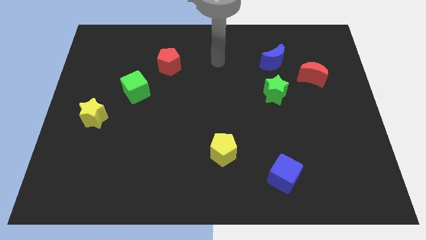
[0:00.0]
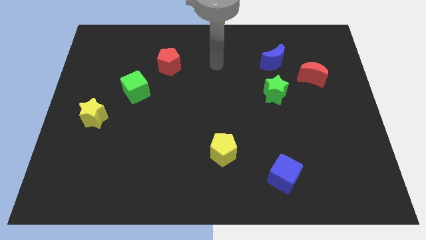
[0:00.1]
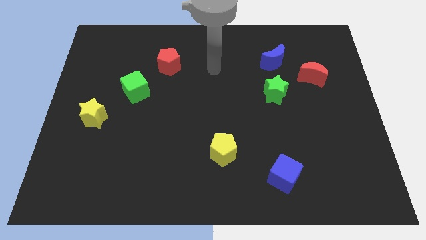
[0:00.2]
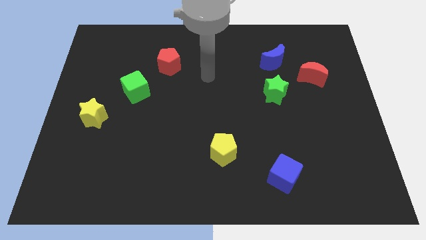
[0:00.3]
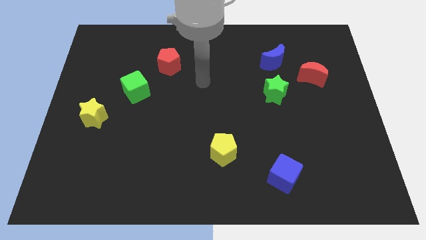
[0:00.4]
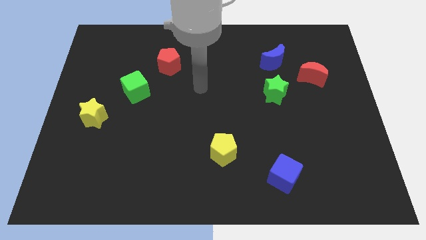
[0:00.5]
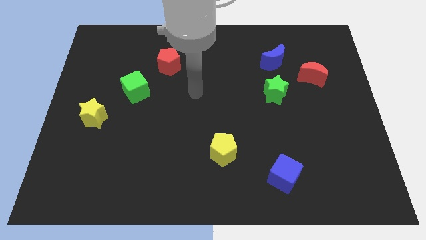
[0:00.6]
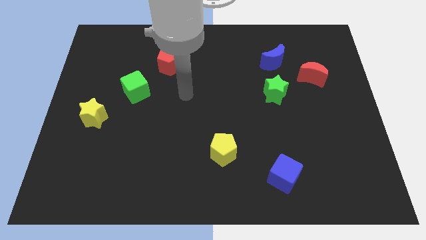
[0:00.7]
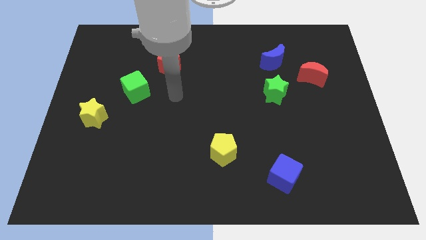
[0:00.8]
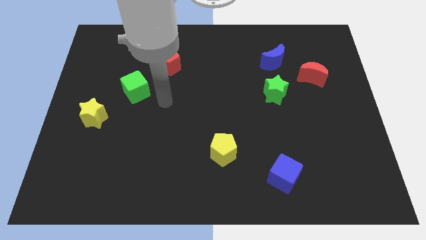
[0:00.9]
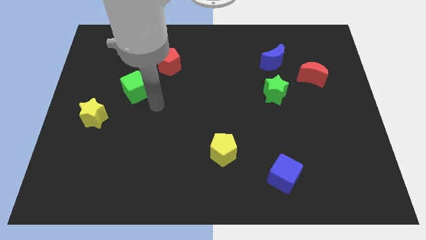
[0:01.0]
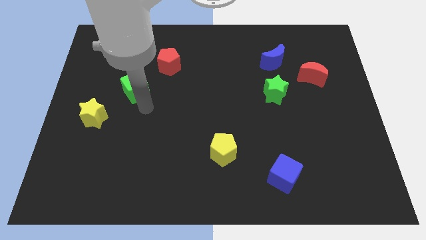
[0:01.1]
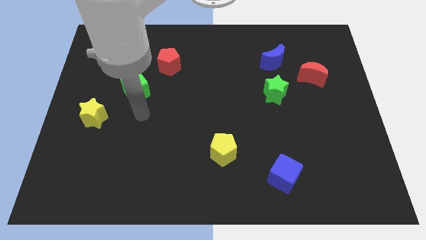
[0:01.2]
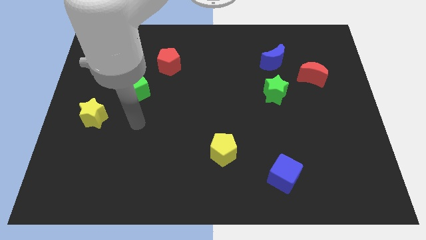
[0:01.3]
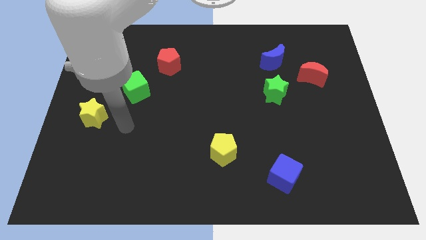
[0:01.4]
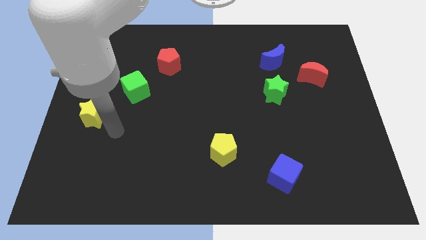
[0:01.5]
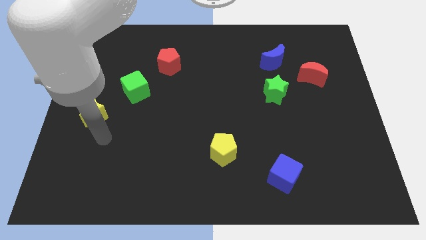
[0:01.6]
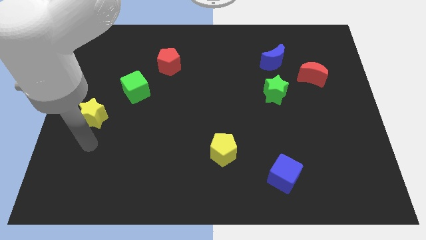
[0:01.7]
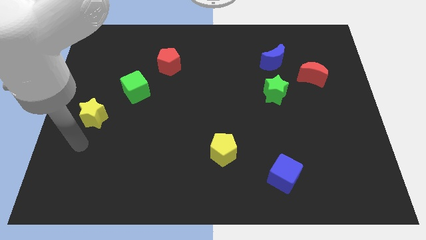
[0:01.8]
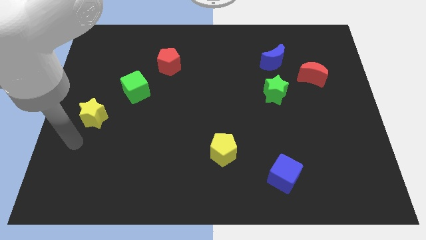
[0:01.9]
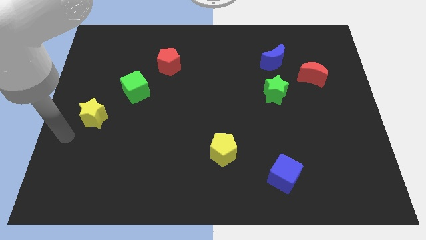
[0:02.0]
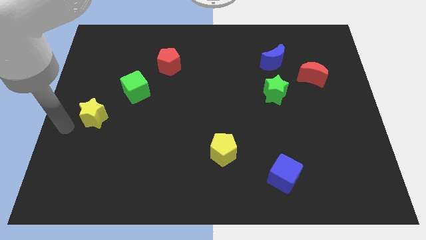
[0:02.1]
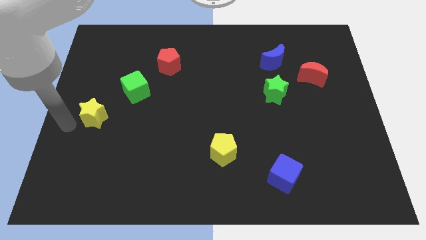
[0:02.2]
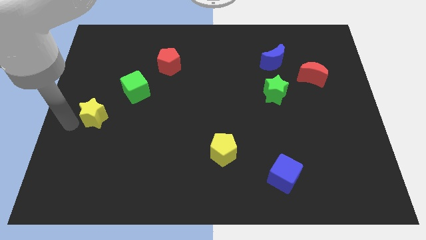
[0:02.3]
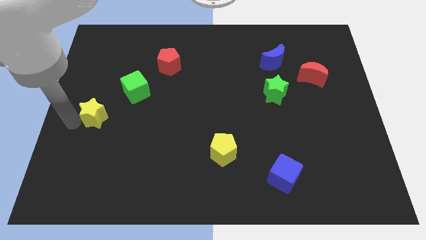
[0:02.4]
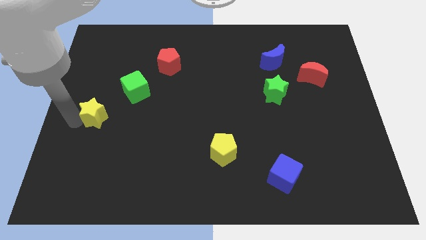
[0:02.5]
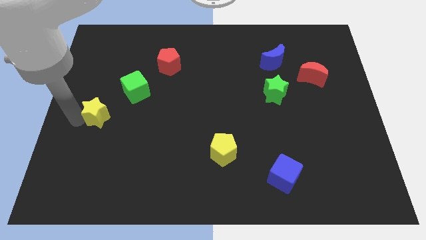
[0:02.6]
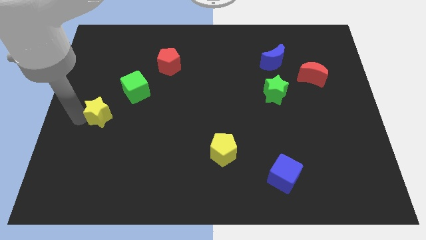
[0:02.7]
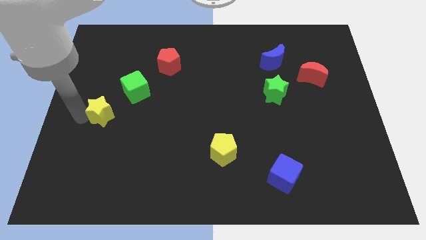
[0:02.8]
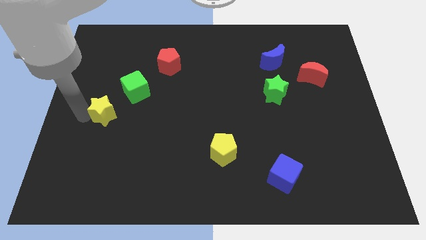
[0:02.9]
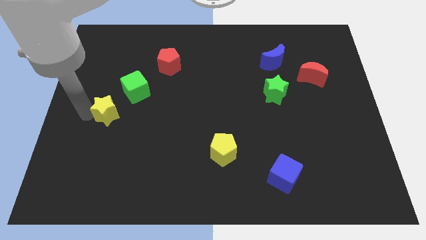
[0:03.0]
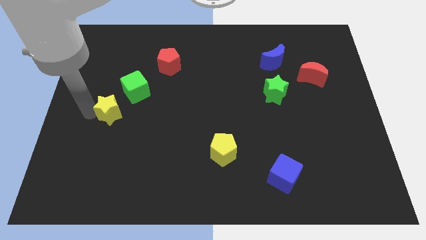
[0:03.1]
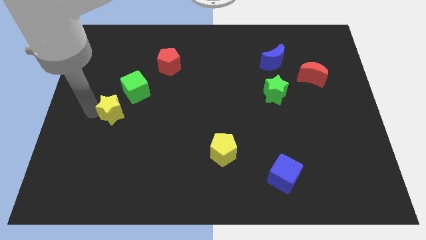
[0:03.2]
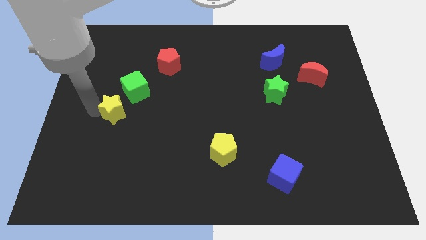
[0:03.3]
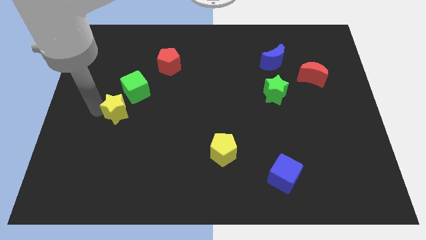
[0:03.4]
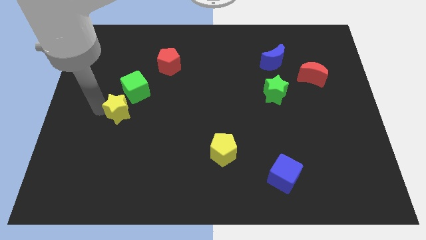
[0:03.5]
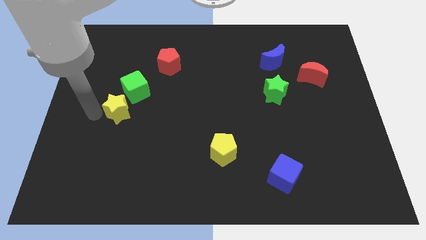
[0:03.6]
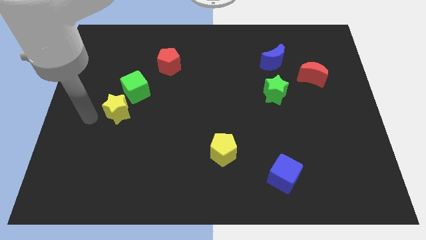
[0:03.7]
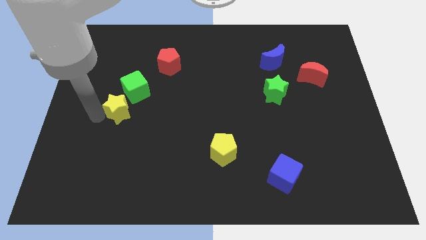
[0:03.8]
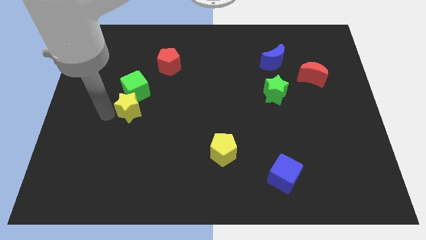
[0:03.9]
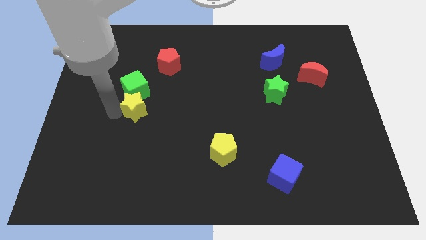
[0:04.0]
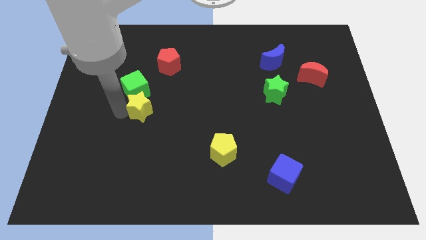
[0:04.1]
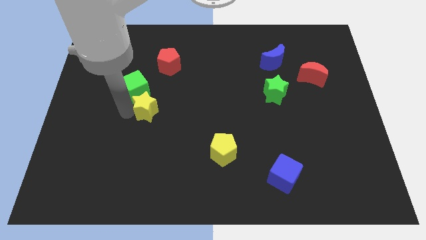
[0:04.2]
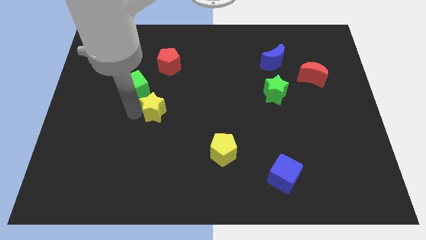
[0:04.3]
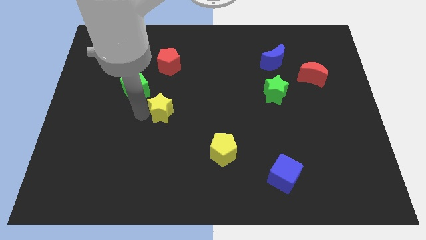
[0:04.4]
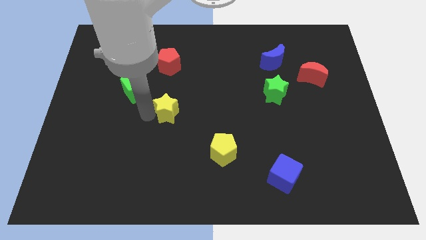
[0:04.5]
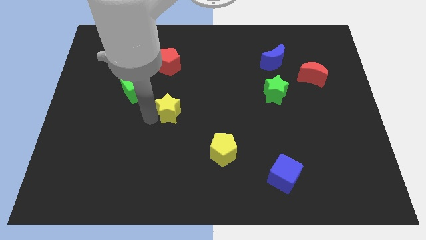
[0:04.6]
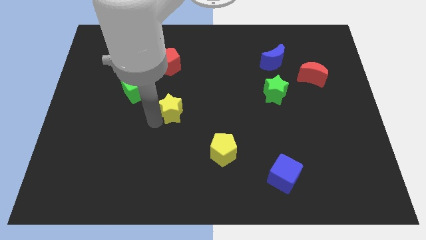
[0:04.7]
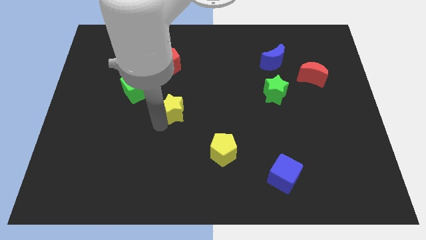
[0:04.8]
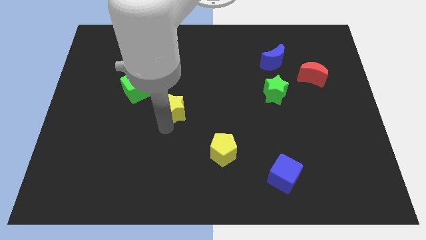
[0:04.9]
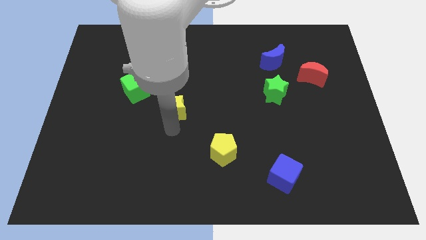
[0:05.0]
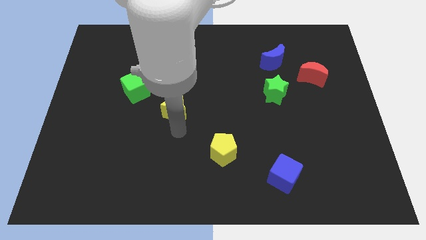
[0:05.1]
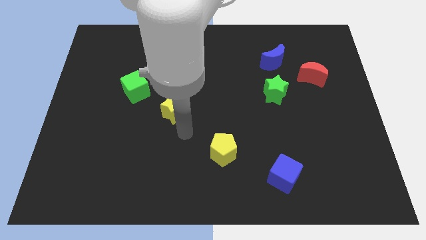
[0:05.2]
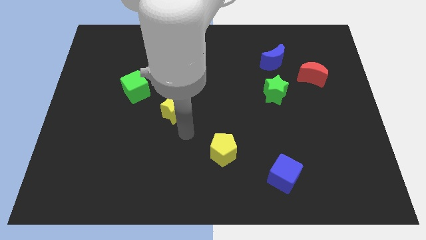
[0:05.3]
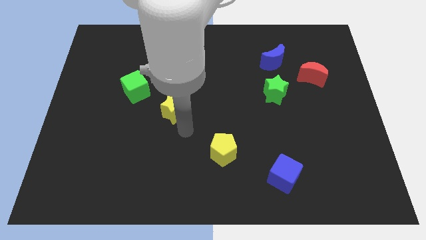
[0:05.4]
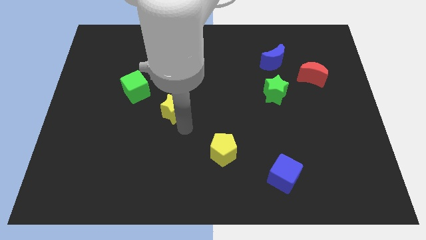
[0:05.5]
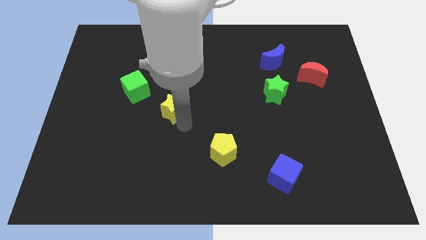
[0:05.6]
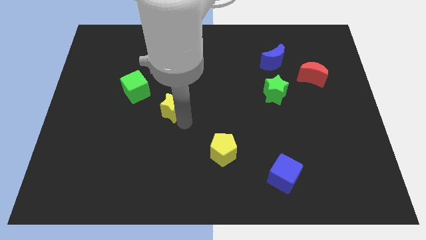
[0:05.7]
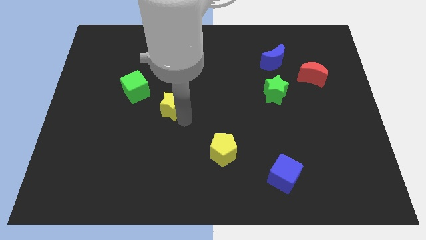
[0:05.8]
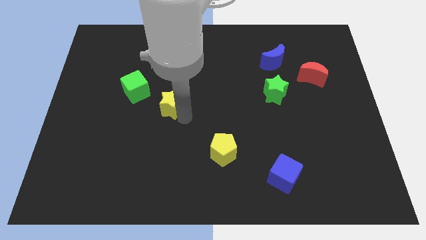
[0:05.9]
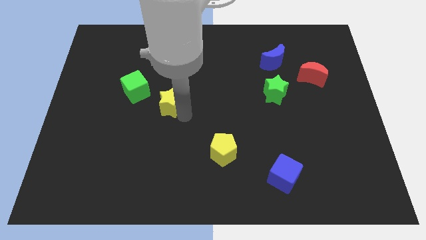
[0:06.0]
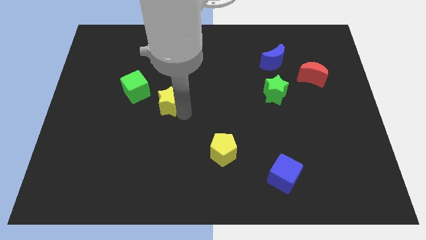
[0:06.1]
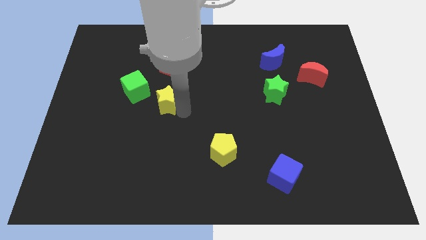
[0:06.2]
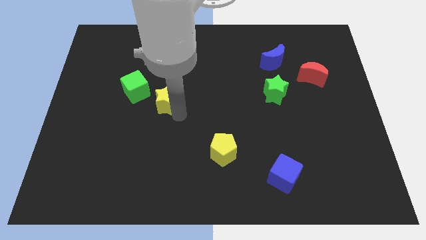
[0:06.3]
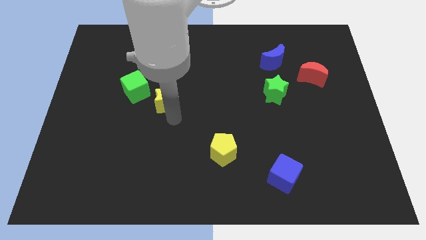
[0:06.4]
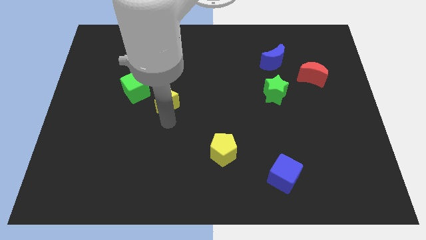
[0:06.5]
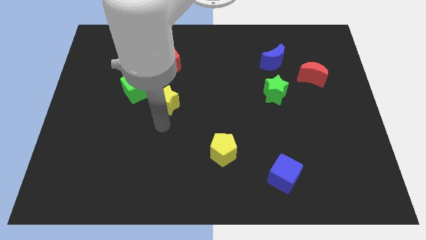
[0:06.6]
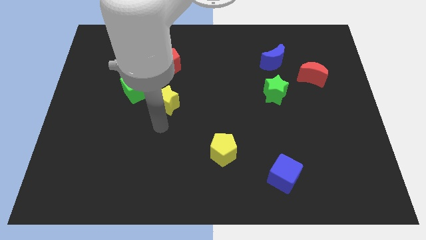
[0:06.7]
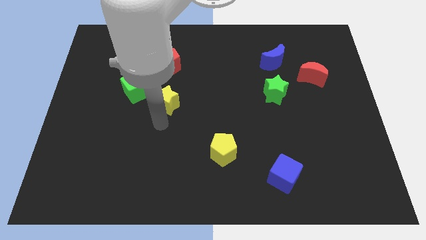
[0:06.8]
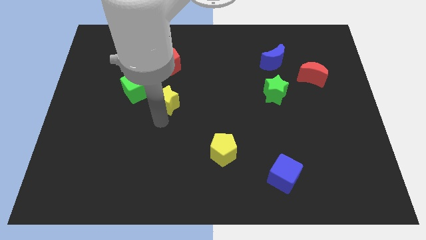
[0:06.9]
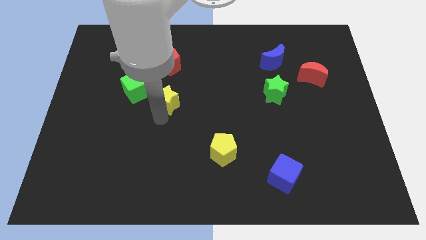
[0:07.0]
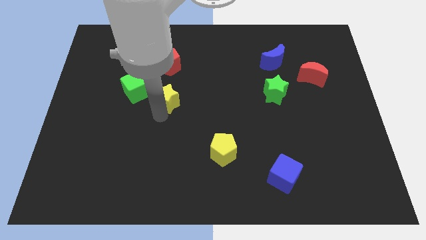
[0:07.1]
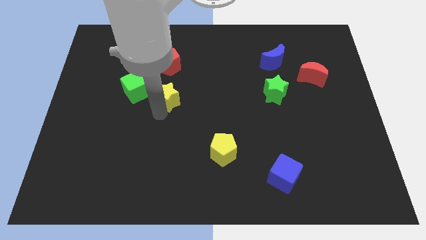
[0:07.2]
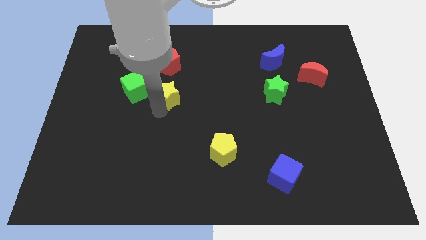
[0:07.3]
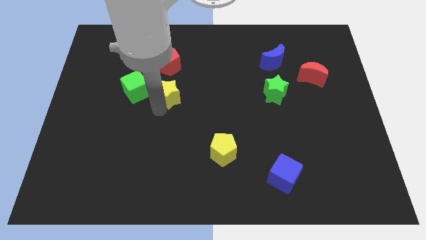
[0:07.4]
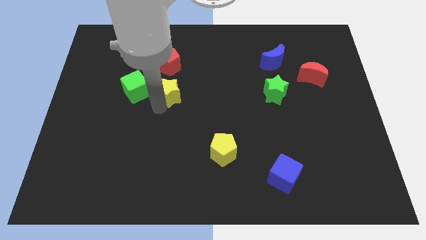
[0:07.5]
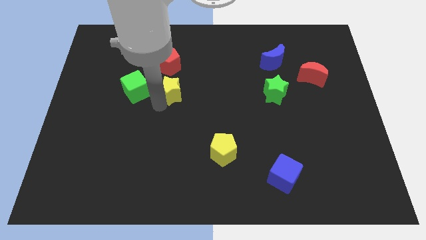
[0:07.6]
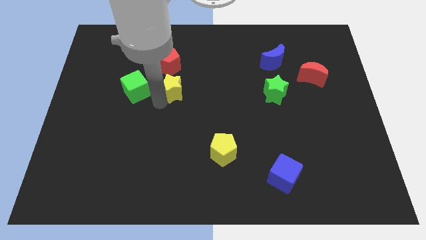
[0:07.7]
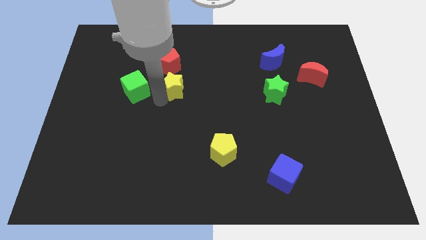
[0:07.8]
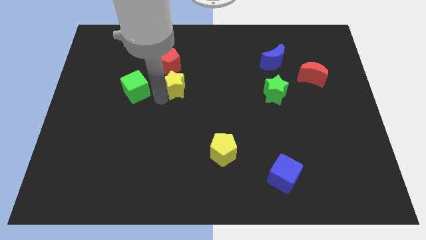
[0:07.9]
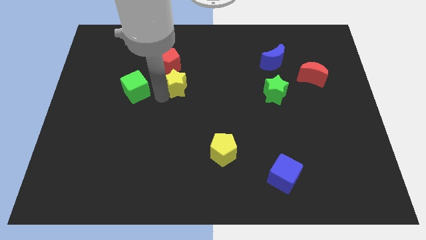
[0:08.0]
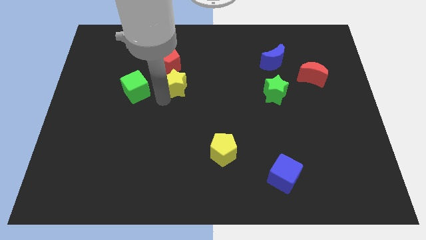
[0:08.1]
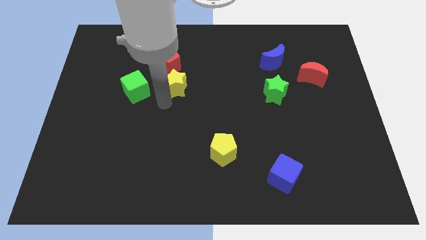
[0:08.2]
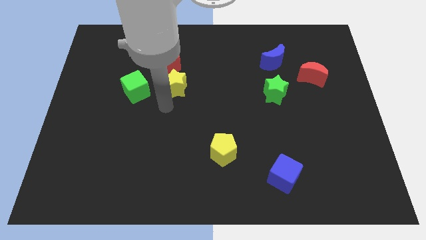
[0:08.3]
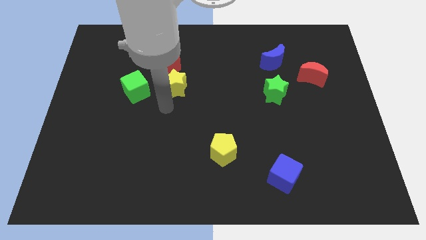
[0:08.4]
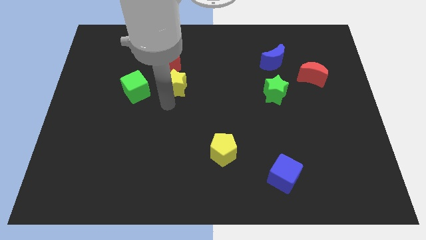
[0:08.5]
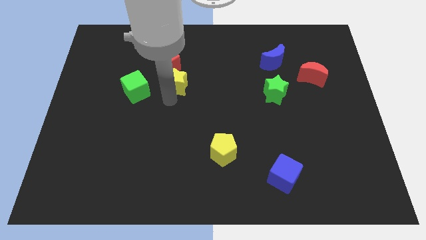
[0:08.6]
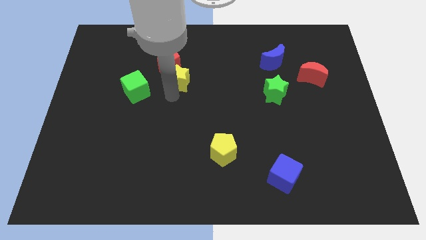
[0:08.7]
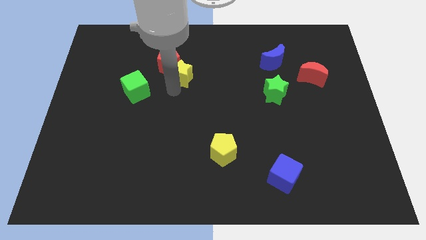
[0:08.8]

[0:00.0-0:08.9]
push the yellow star right of the red pentagon
